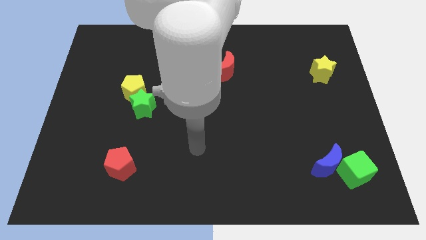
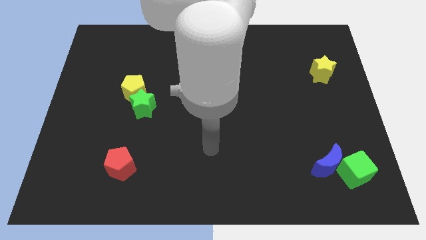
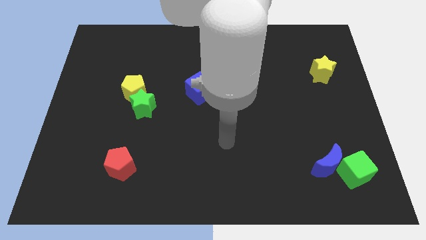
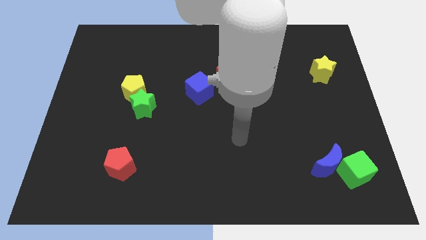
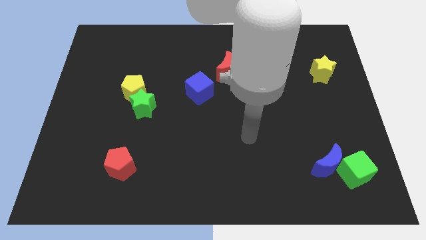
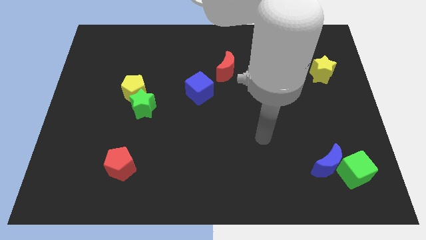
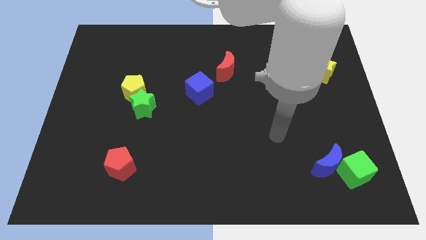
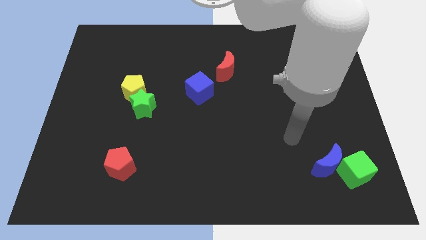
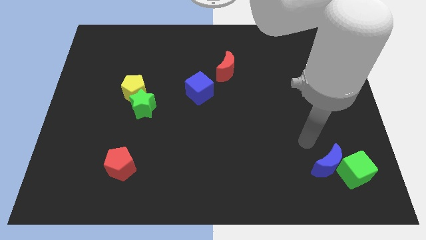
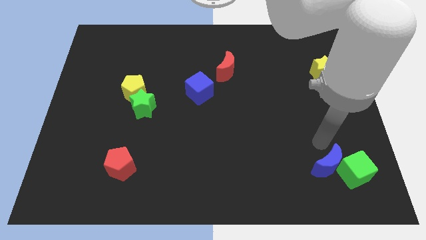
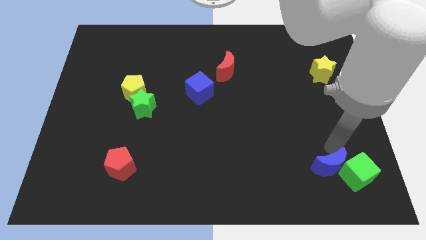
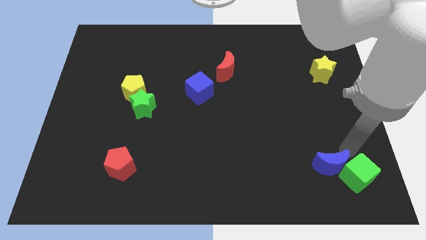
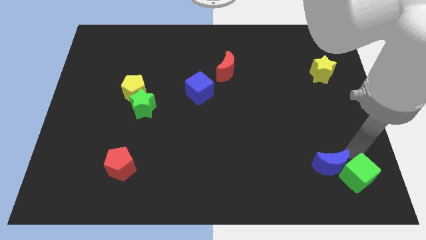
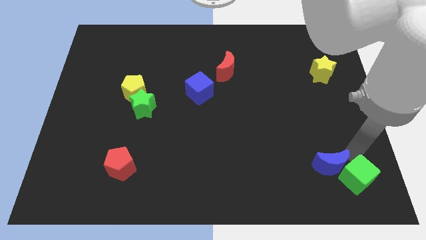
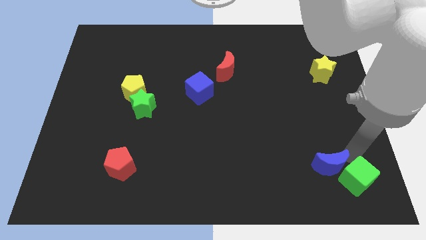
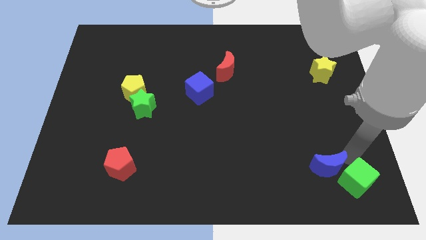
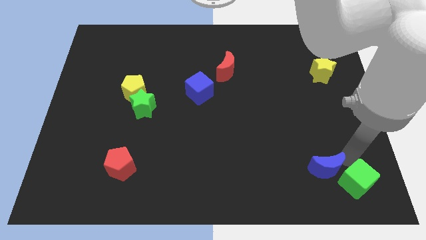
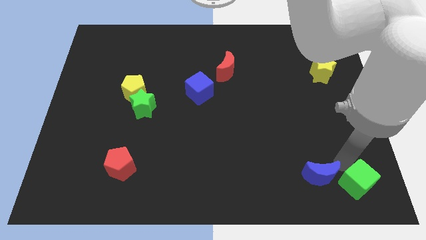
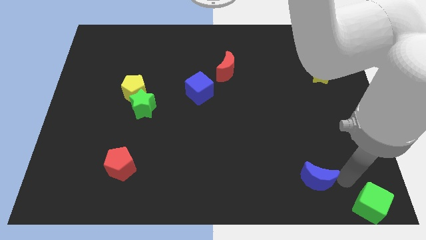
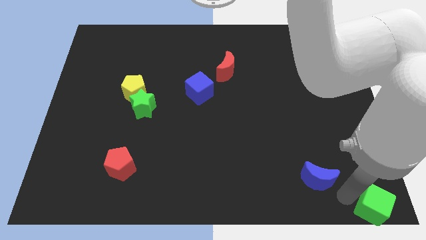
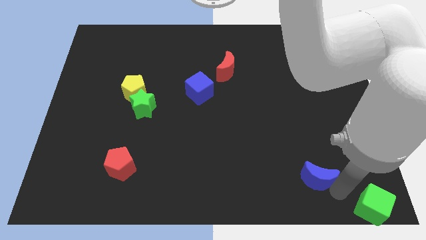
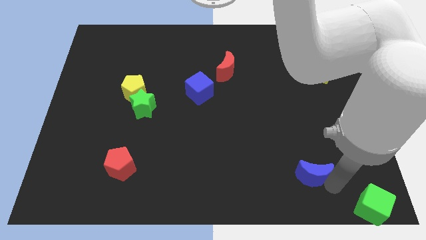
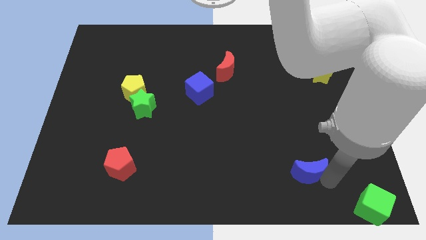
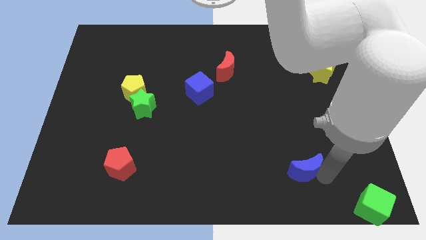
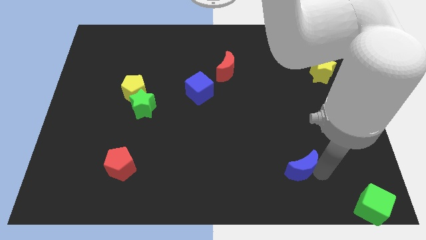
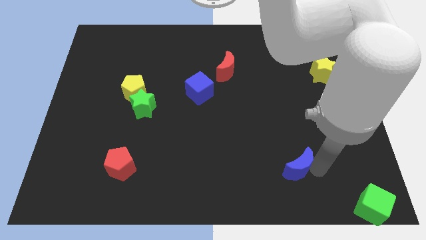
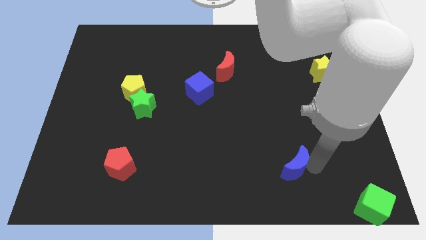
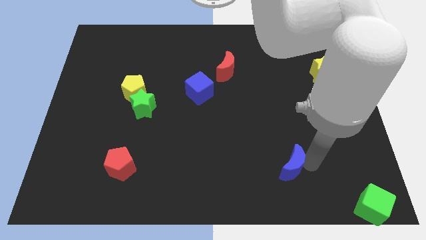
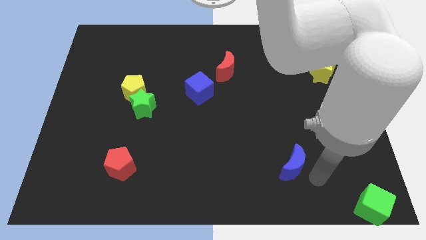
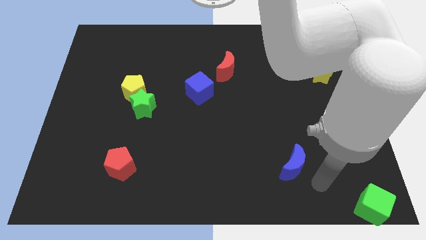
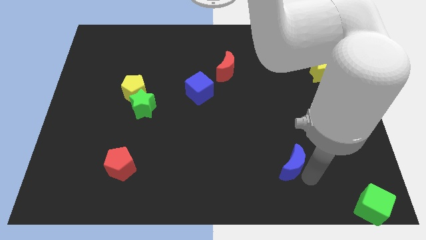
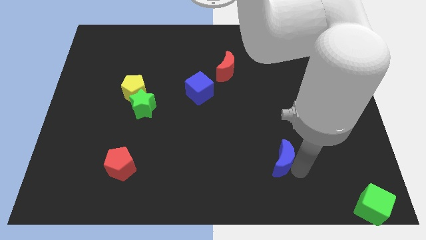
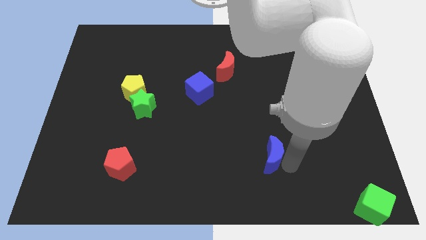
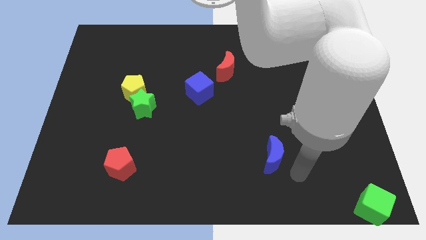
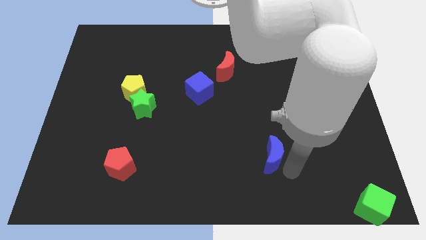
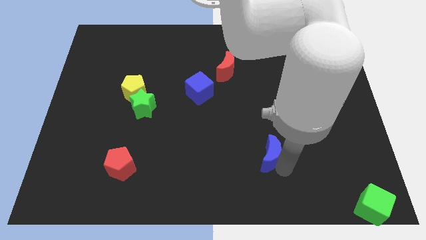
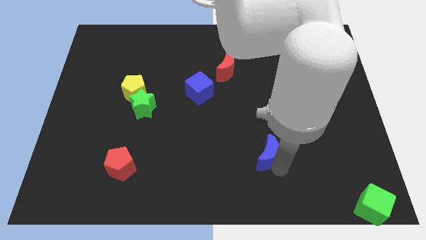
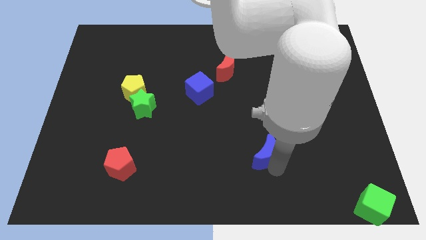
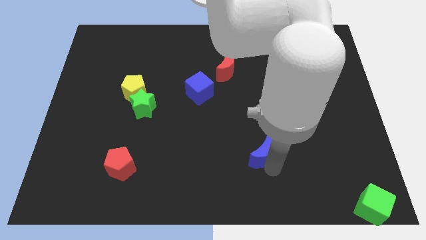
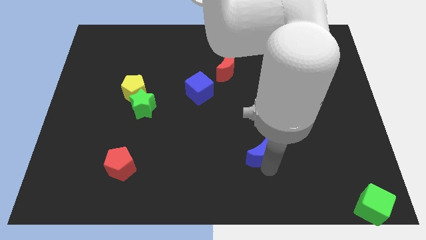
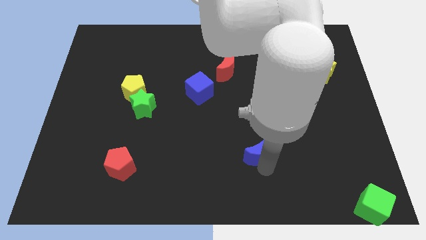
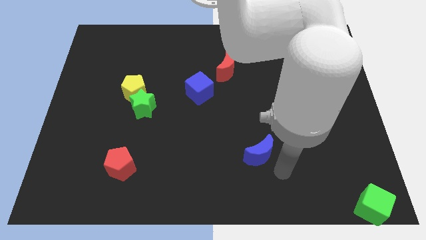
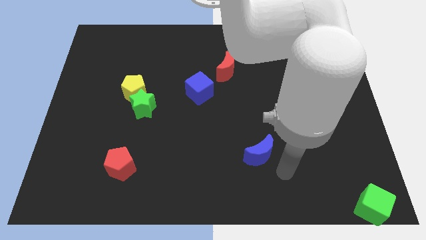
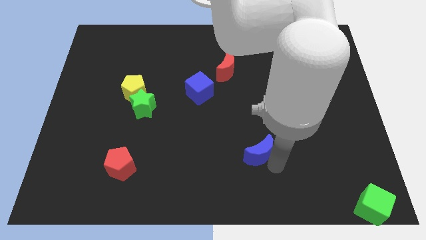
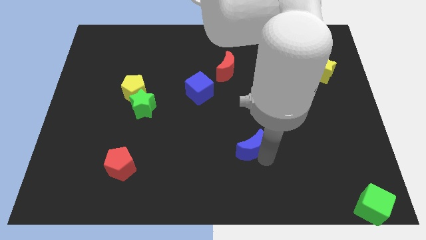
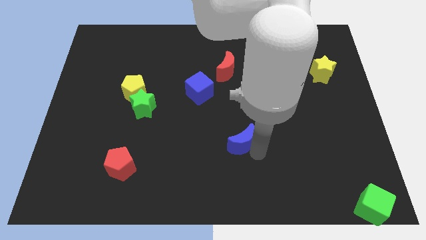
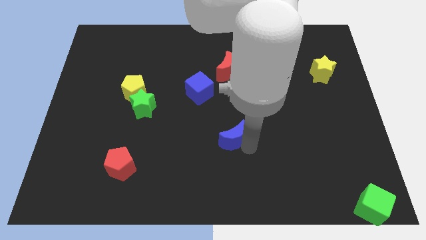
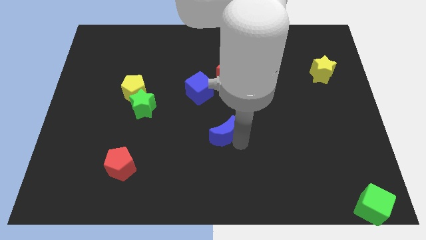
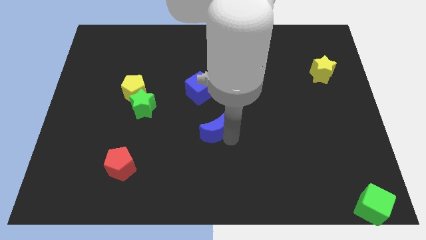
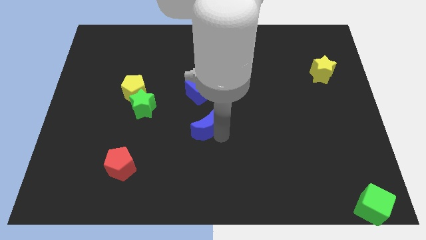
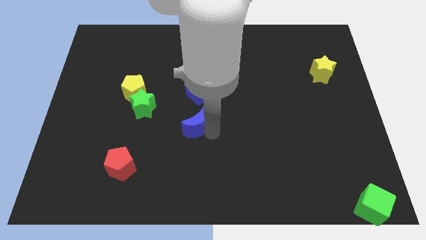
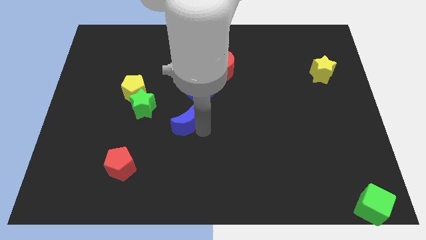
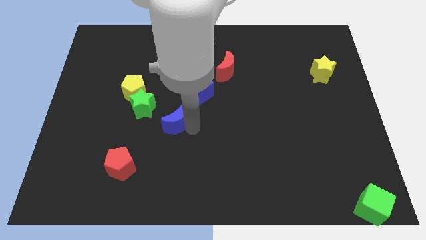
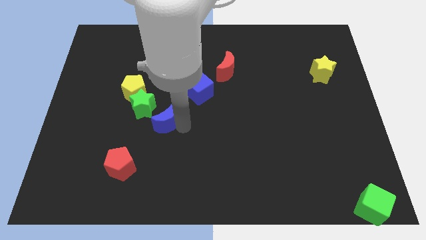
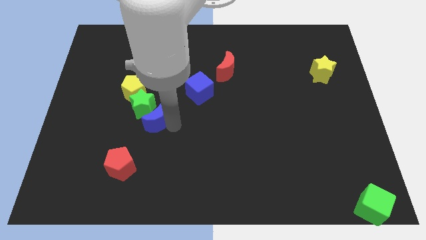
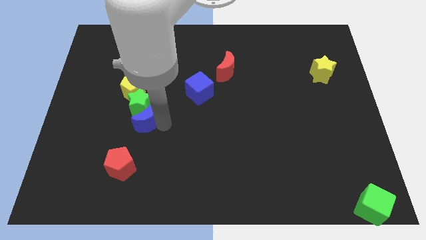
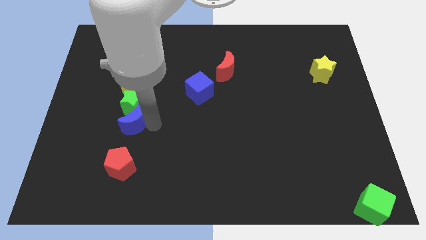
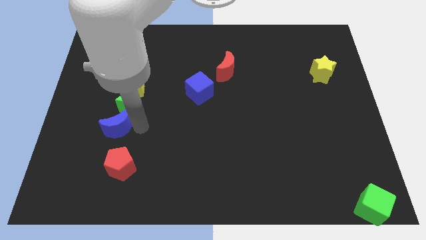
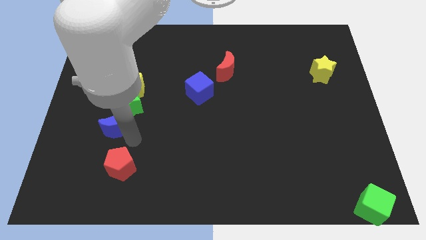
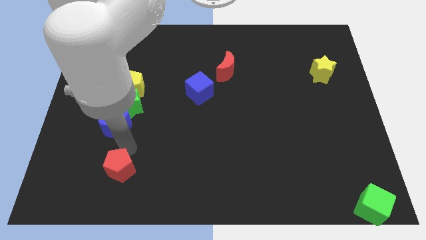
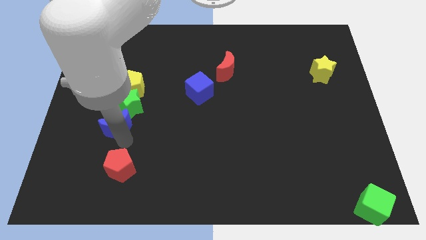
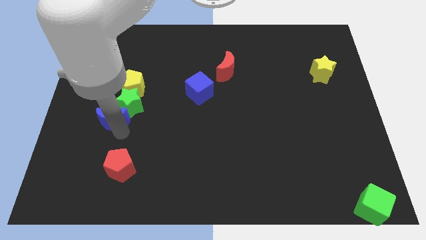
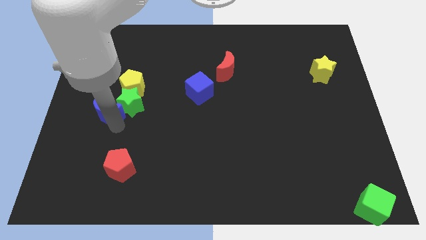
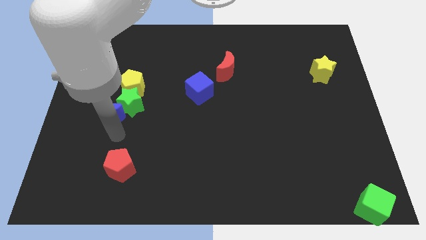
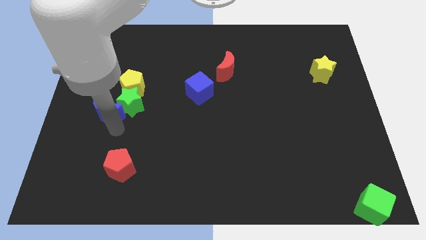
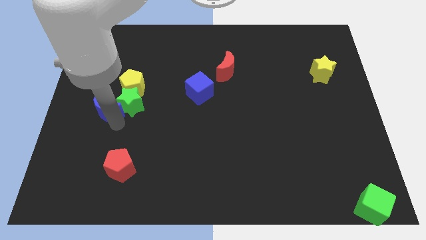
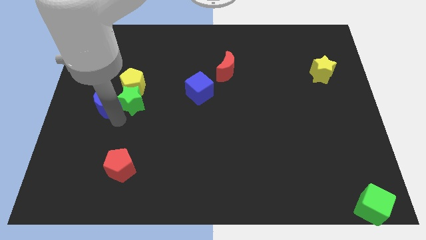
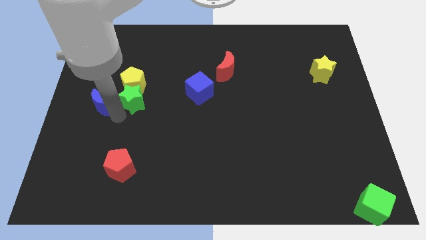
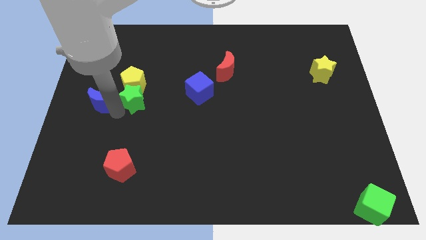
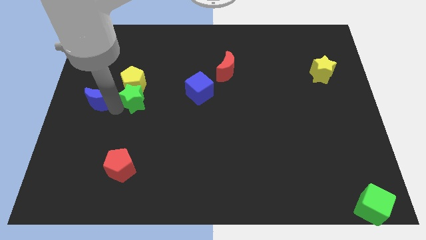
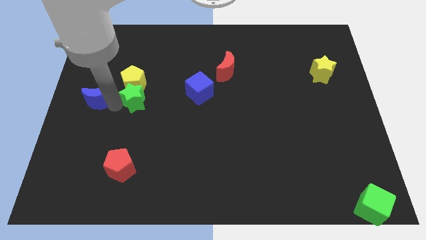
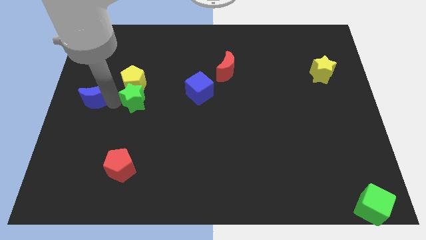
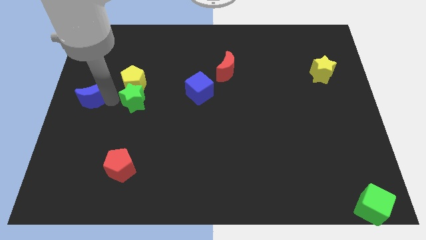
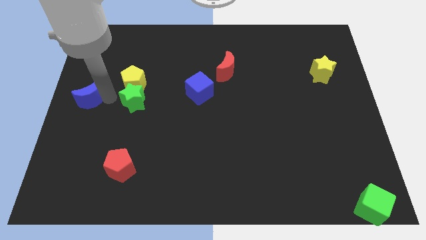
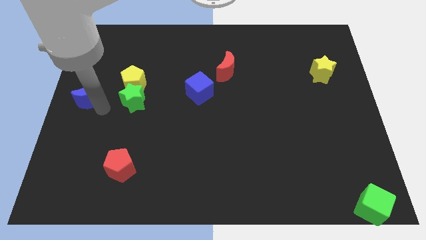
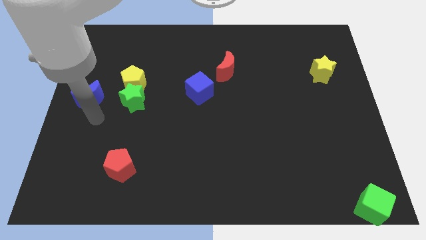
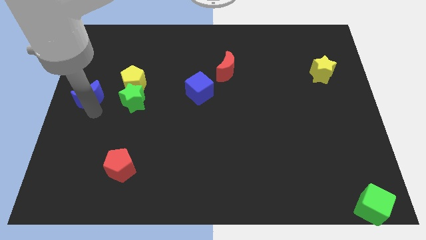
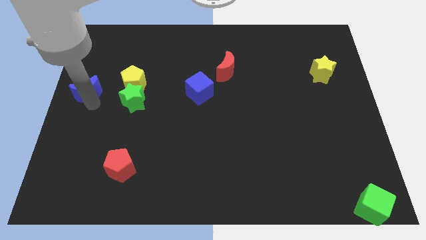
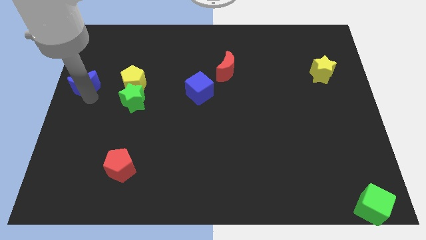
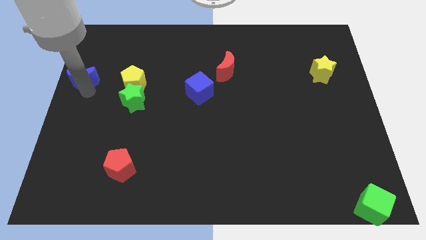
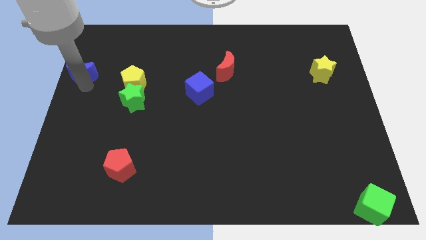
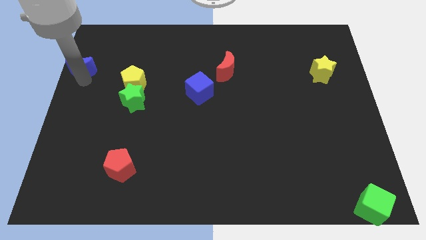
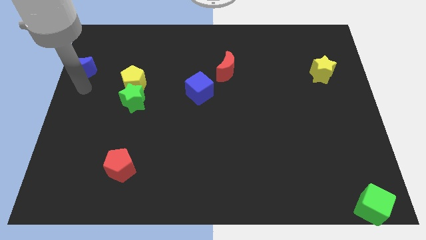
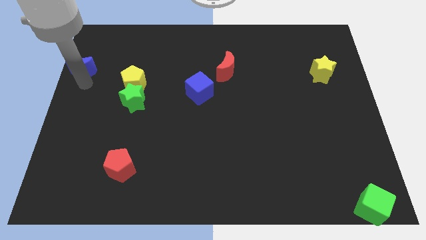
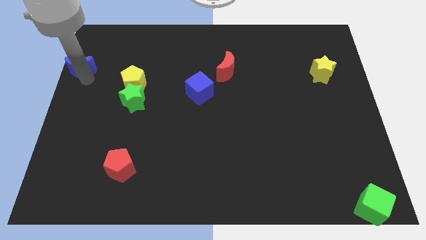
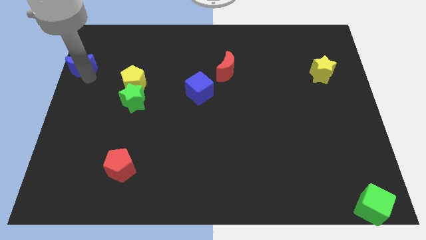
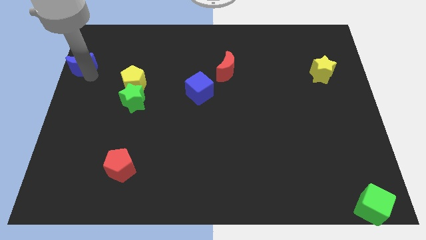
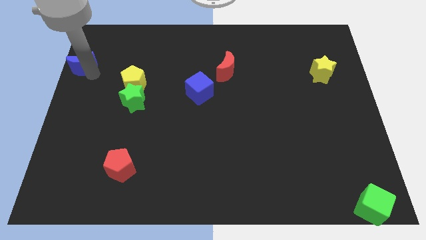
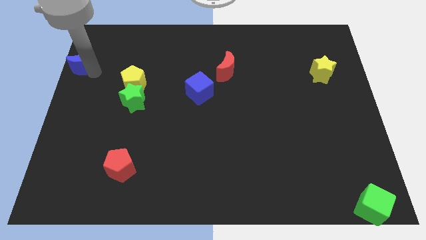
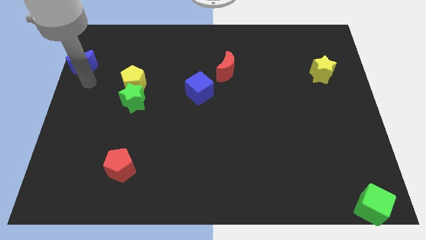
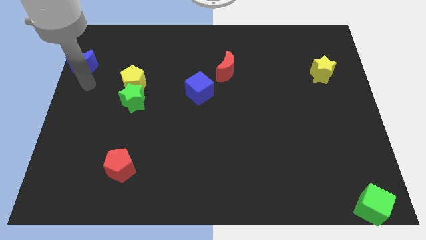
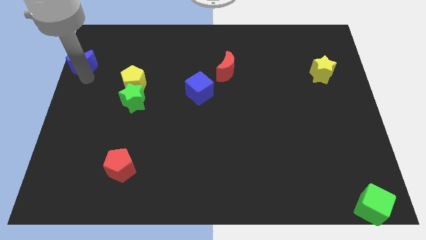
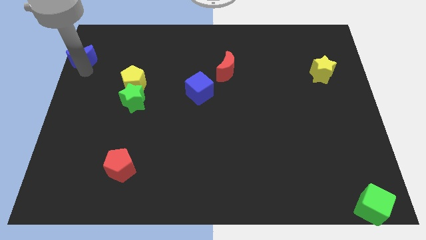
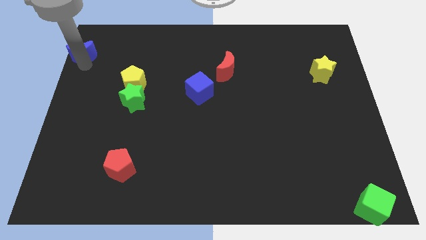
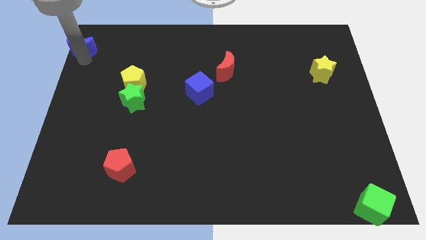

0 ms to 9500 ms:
slide the blue moon to the top left
